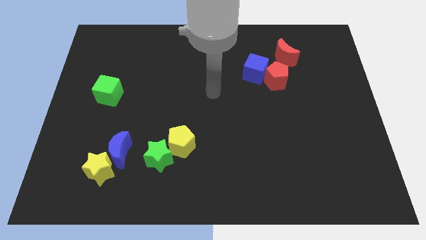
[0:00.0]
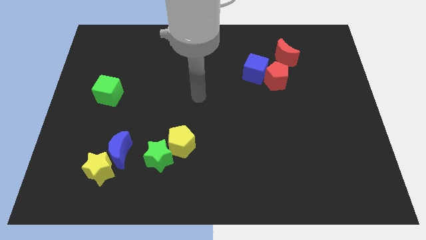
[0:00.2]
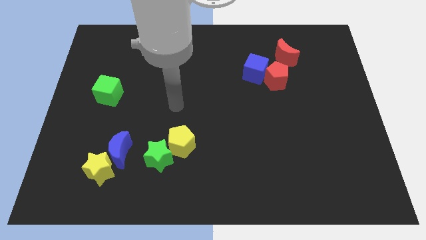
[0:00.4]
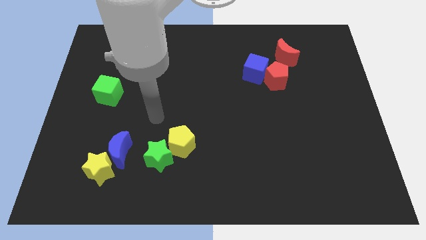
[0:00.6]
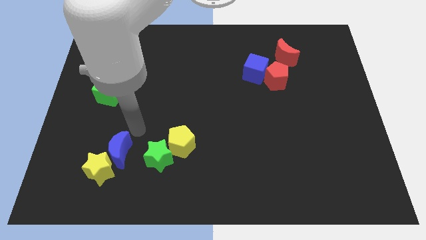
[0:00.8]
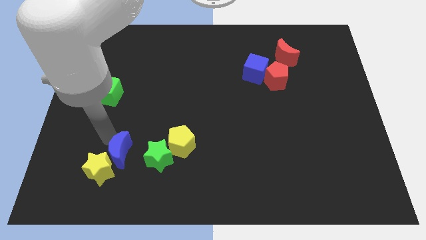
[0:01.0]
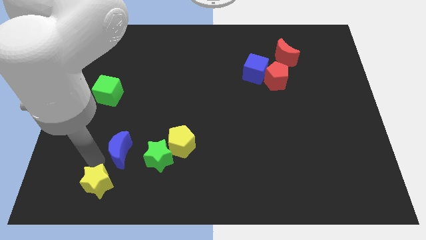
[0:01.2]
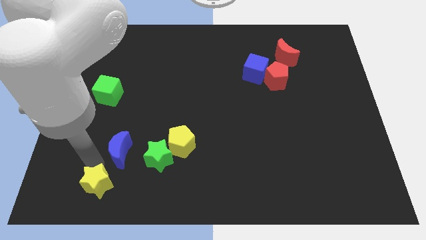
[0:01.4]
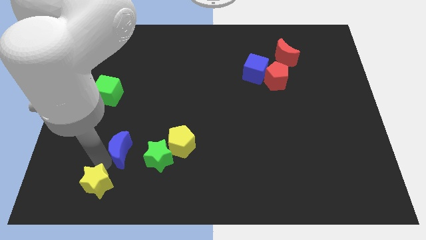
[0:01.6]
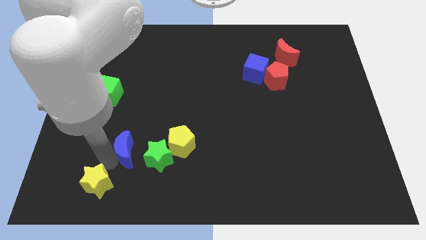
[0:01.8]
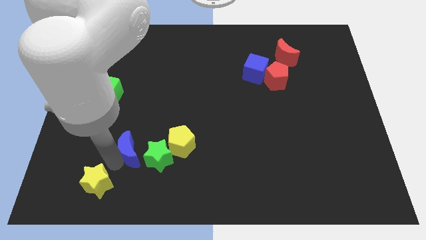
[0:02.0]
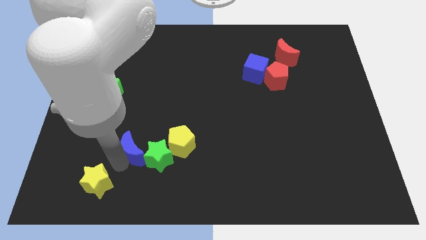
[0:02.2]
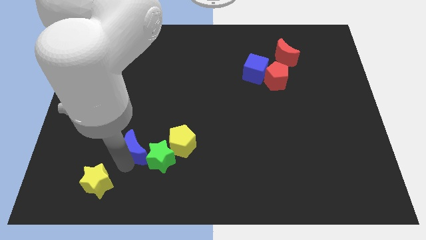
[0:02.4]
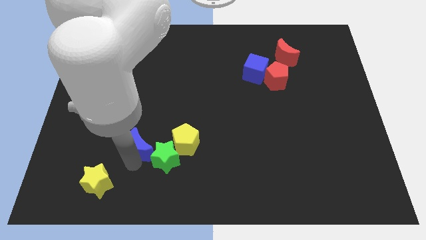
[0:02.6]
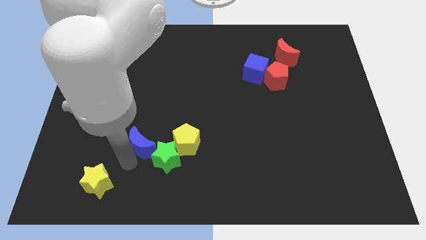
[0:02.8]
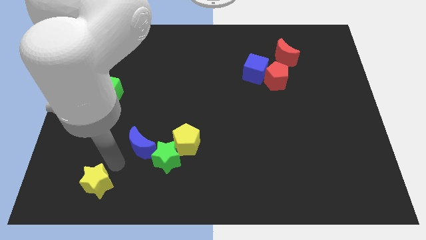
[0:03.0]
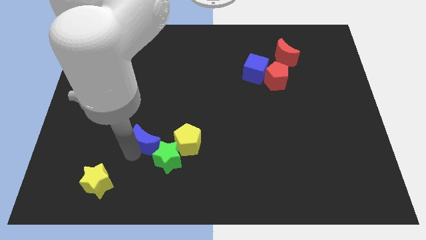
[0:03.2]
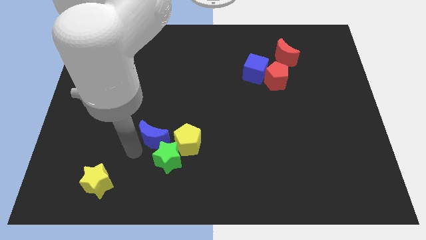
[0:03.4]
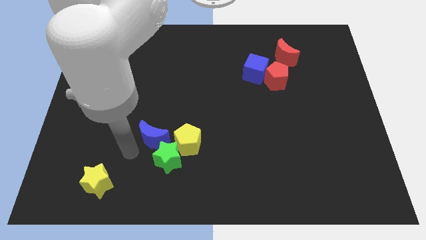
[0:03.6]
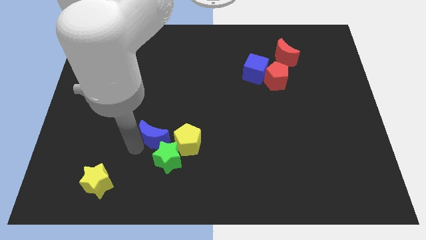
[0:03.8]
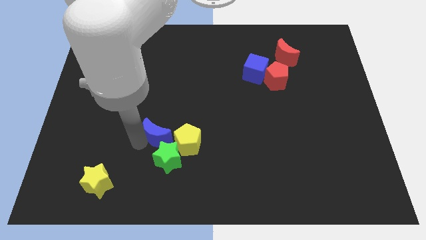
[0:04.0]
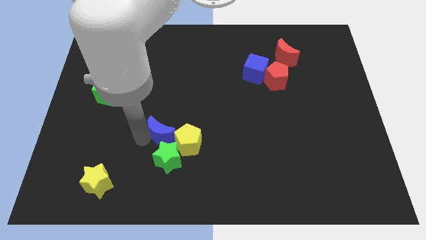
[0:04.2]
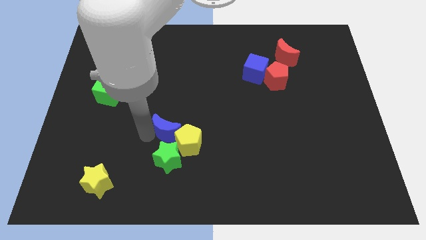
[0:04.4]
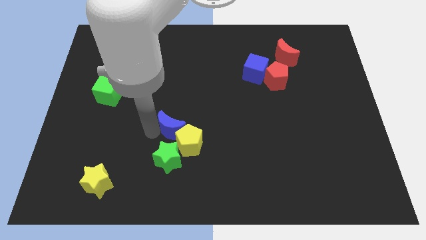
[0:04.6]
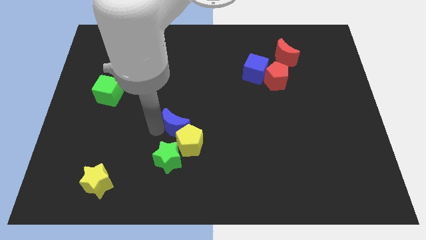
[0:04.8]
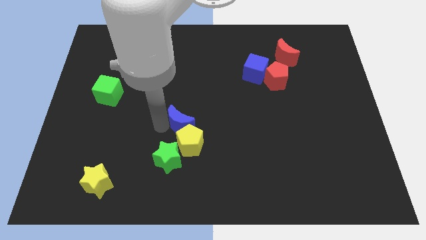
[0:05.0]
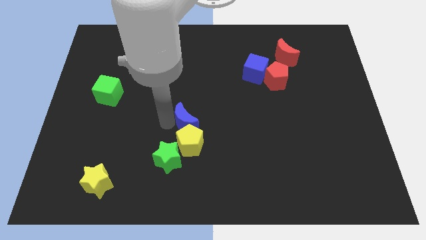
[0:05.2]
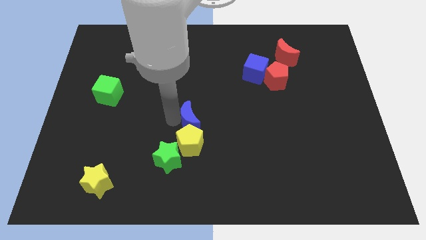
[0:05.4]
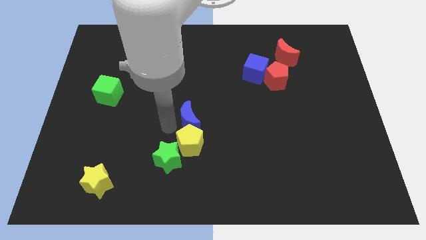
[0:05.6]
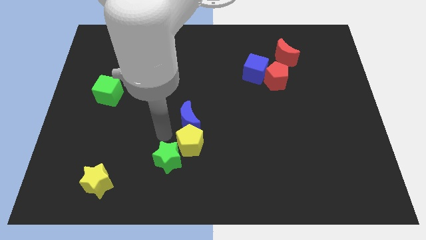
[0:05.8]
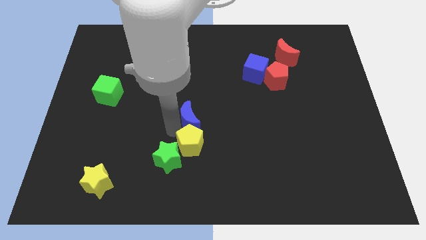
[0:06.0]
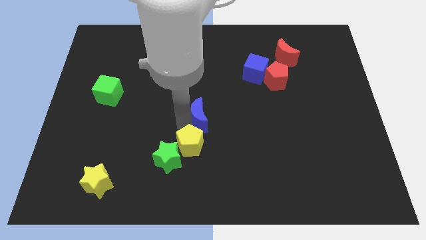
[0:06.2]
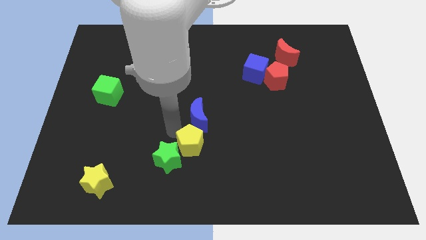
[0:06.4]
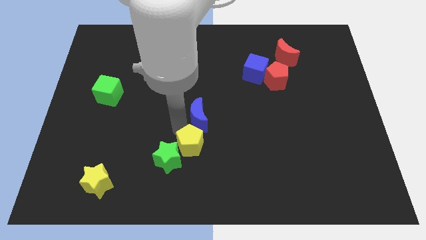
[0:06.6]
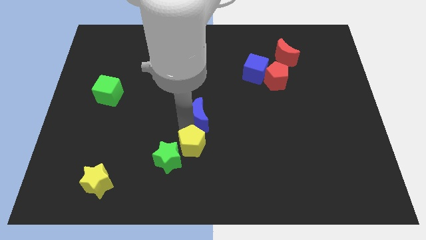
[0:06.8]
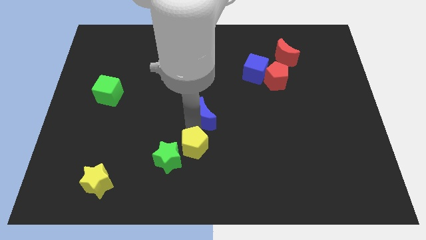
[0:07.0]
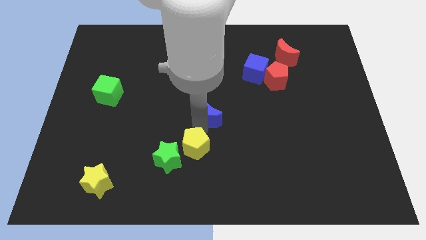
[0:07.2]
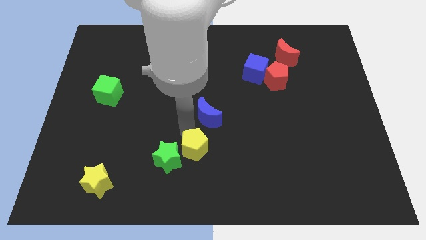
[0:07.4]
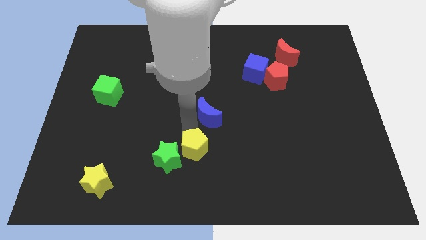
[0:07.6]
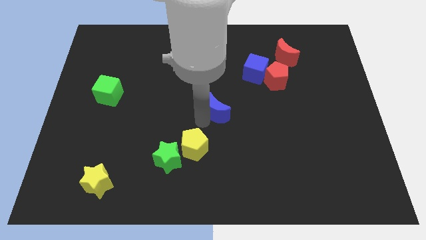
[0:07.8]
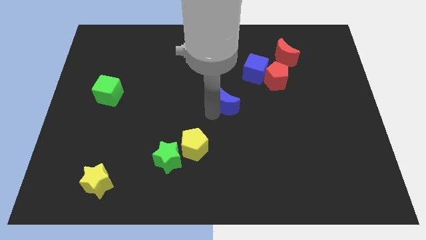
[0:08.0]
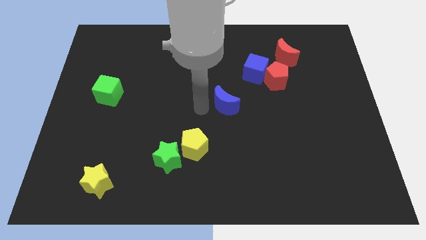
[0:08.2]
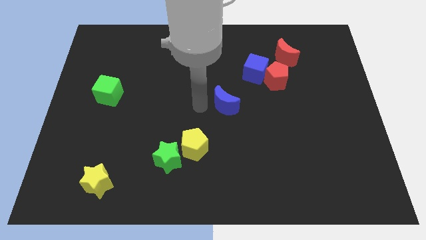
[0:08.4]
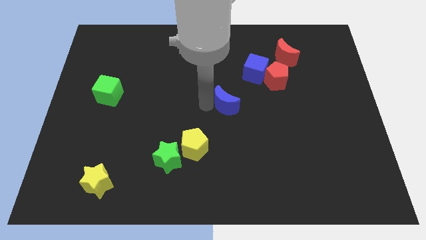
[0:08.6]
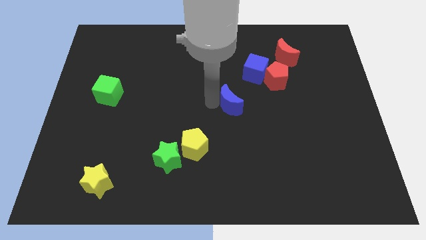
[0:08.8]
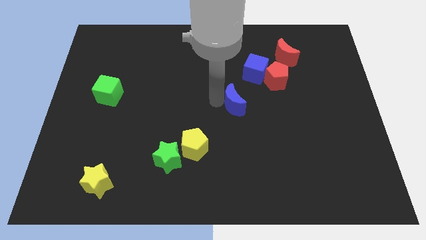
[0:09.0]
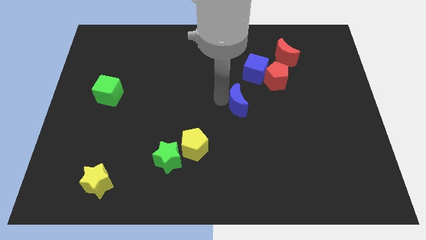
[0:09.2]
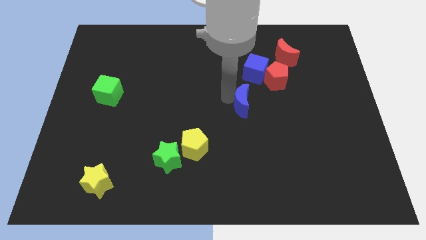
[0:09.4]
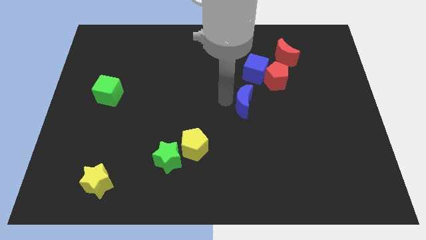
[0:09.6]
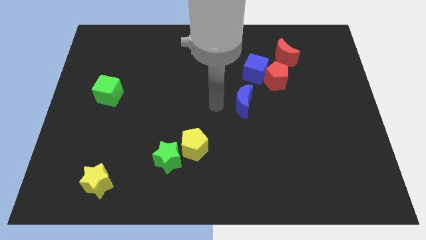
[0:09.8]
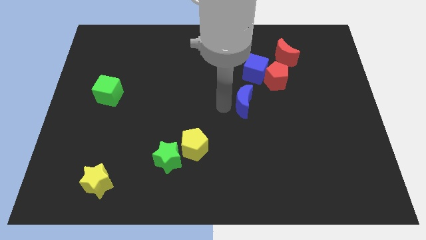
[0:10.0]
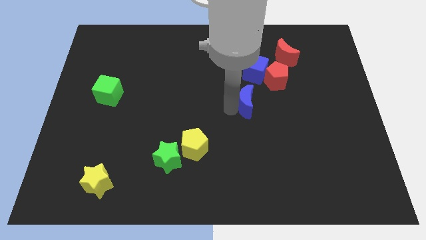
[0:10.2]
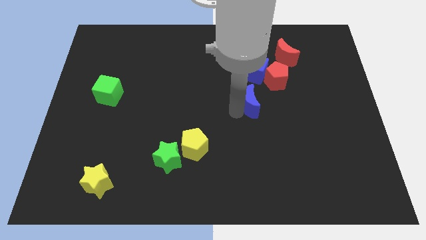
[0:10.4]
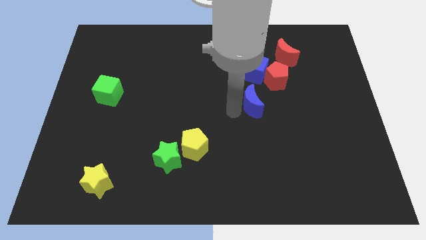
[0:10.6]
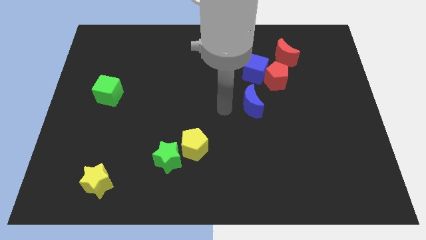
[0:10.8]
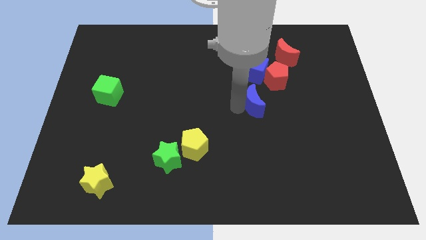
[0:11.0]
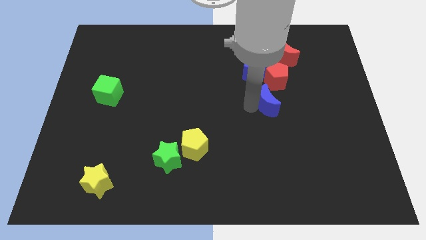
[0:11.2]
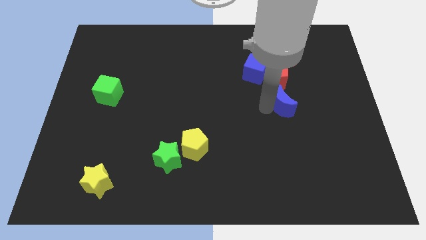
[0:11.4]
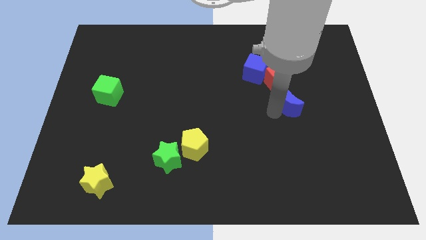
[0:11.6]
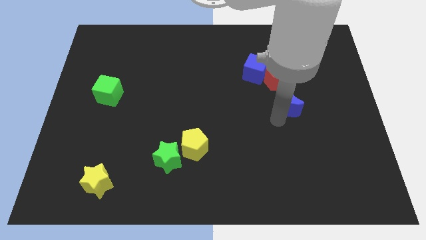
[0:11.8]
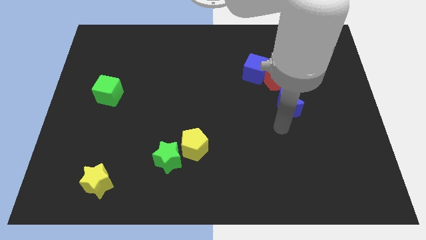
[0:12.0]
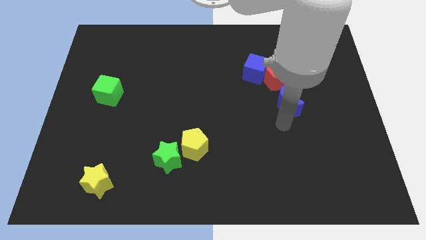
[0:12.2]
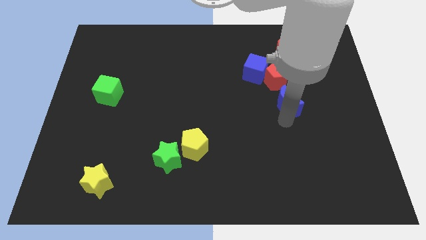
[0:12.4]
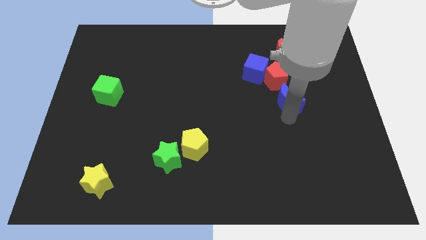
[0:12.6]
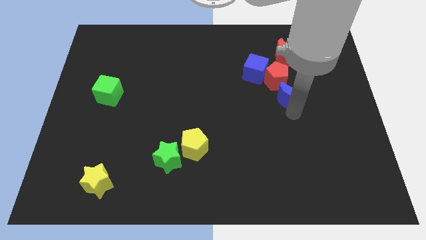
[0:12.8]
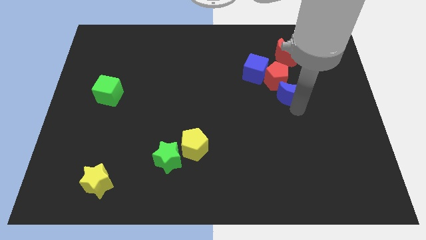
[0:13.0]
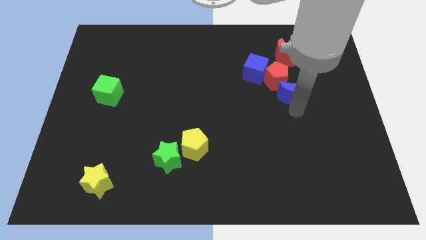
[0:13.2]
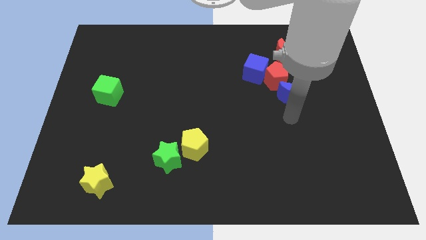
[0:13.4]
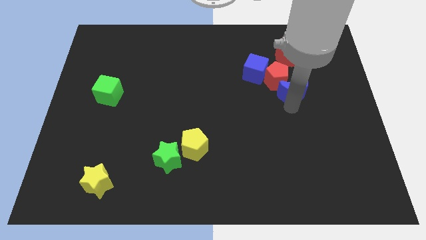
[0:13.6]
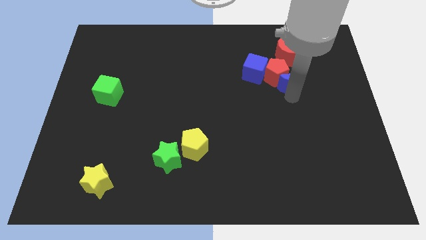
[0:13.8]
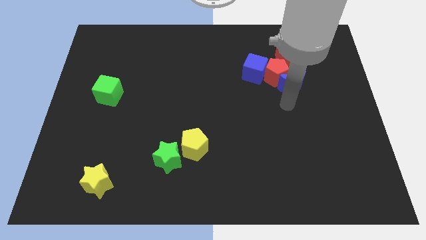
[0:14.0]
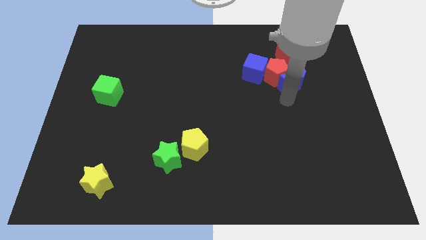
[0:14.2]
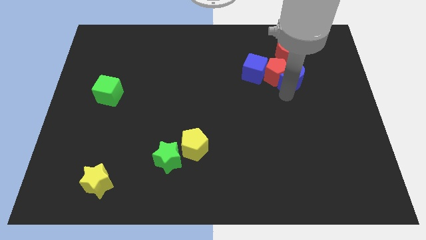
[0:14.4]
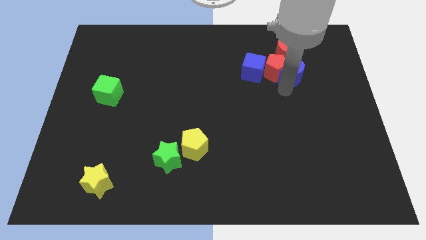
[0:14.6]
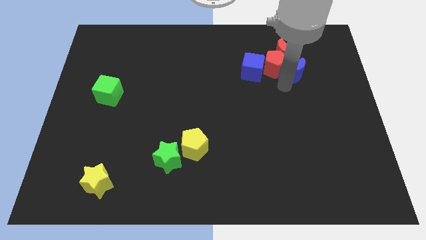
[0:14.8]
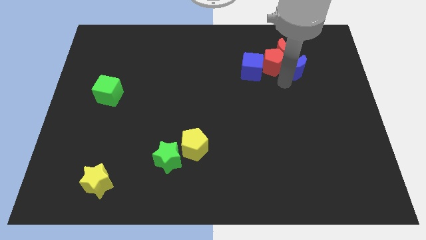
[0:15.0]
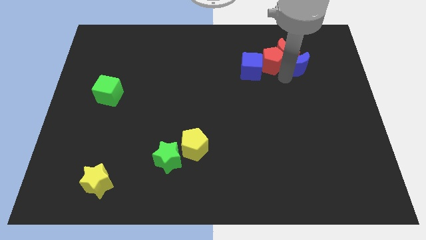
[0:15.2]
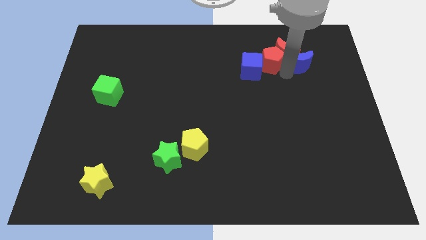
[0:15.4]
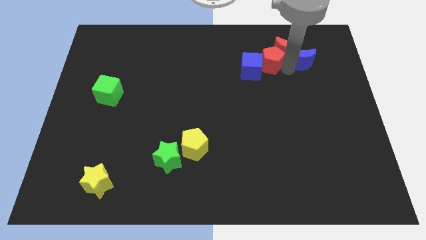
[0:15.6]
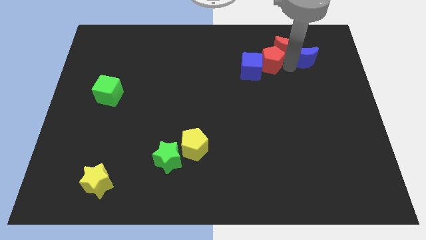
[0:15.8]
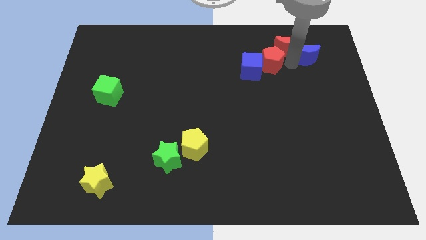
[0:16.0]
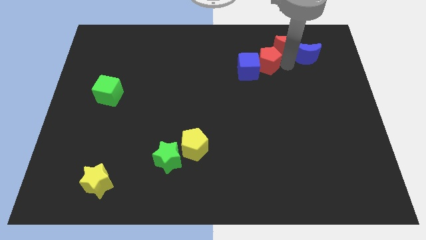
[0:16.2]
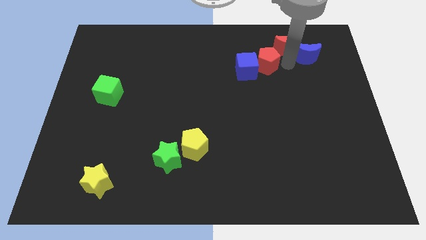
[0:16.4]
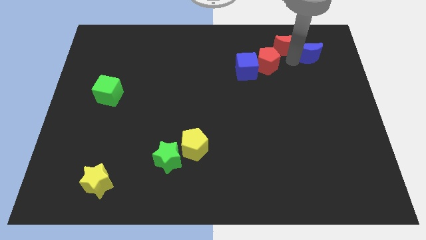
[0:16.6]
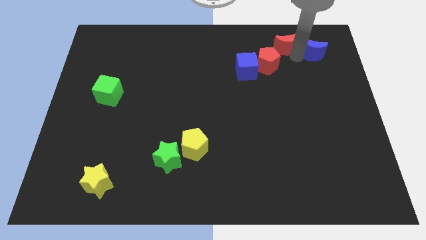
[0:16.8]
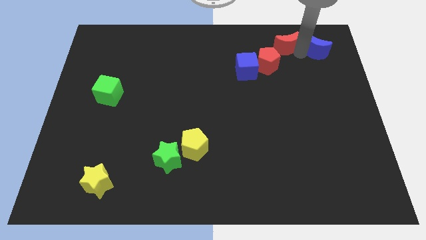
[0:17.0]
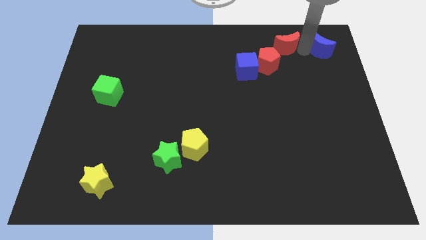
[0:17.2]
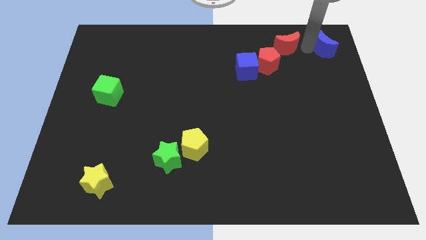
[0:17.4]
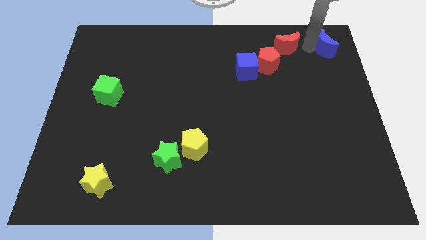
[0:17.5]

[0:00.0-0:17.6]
slide the blue moon to the upper right corner
